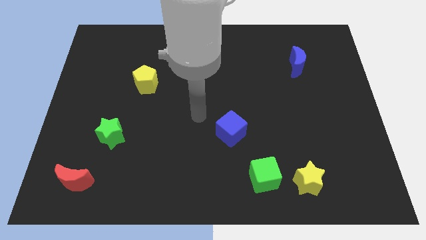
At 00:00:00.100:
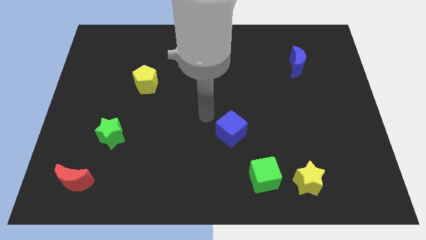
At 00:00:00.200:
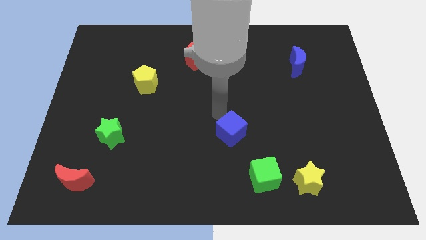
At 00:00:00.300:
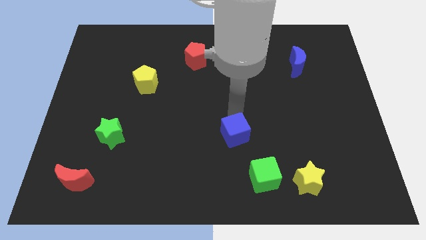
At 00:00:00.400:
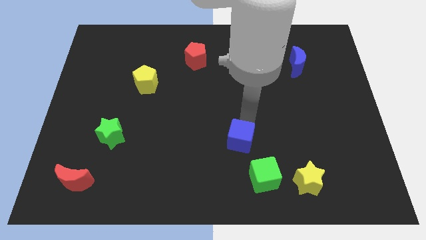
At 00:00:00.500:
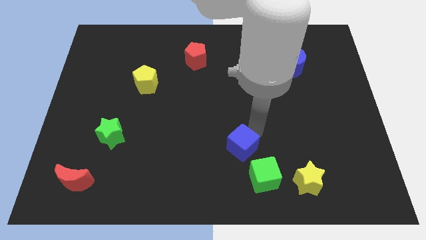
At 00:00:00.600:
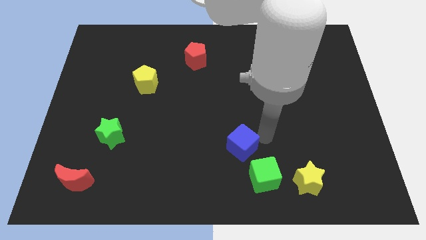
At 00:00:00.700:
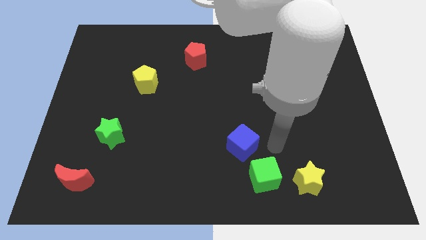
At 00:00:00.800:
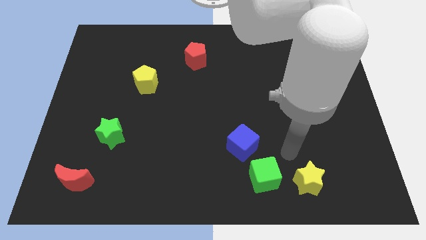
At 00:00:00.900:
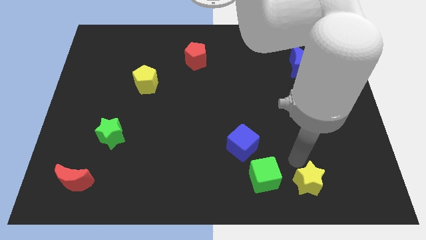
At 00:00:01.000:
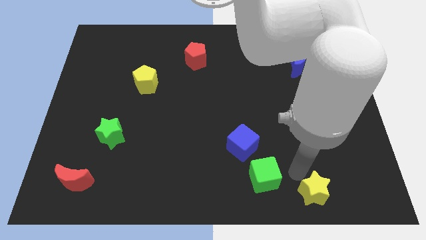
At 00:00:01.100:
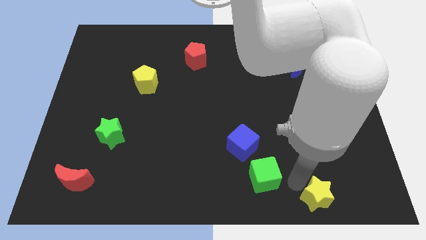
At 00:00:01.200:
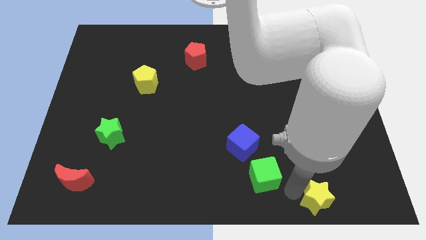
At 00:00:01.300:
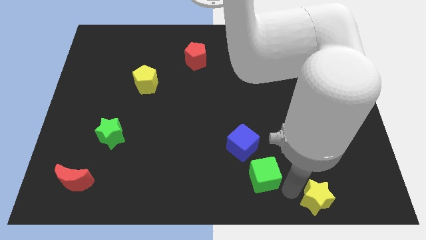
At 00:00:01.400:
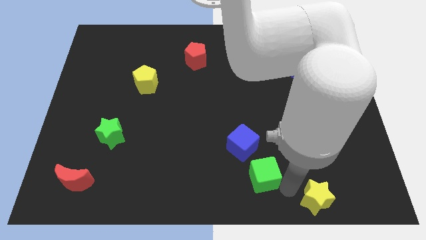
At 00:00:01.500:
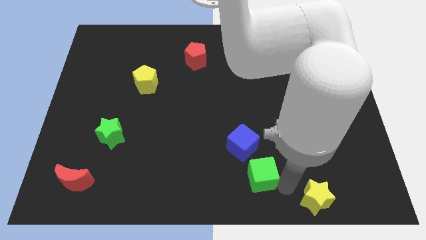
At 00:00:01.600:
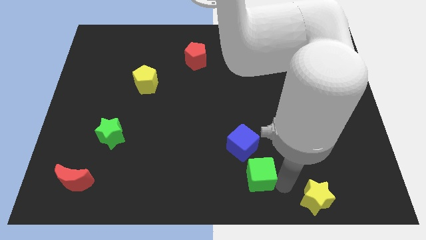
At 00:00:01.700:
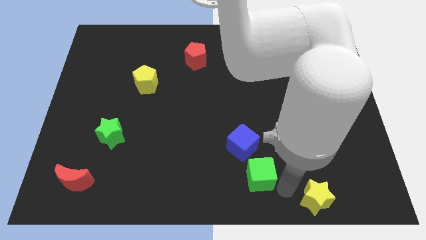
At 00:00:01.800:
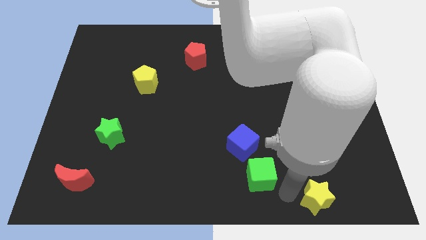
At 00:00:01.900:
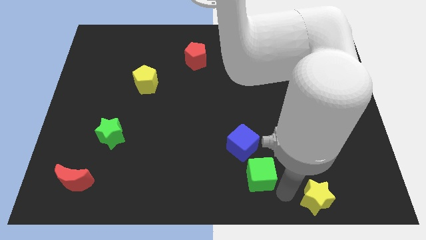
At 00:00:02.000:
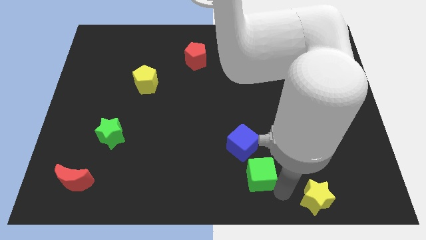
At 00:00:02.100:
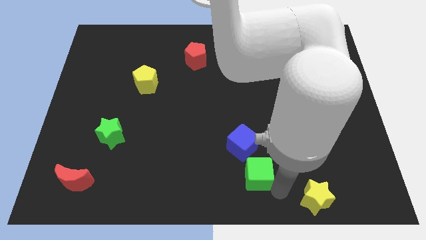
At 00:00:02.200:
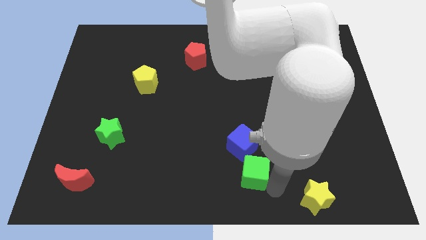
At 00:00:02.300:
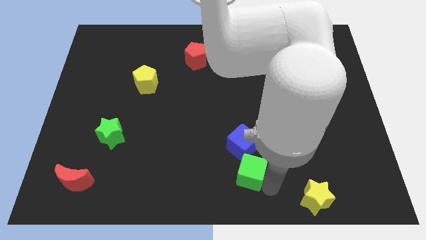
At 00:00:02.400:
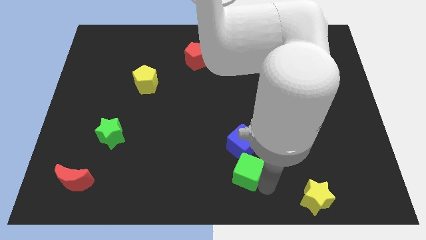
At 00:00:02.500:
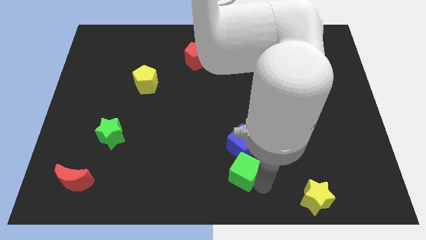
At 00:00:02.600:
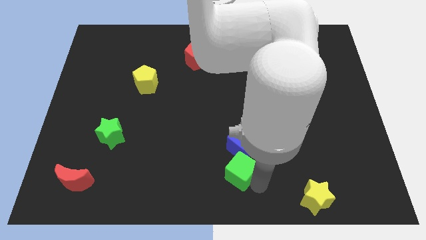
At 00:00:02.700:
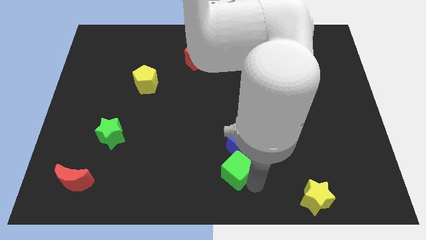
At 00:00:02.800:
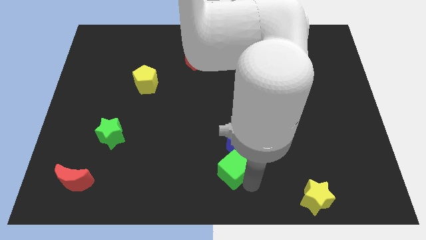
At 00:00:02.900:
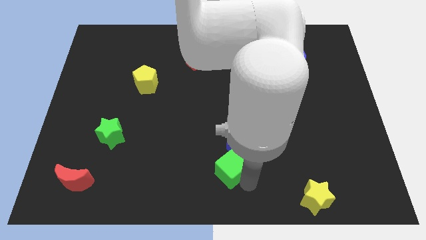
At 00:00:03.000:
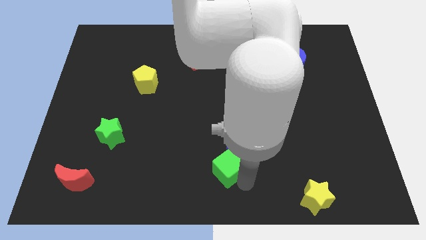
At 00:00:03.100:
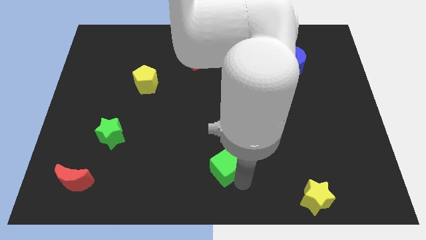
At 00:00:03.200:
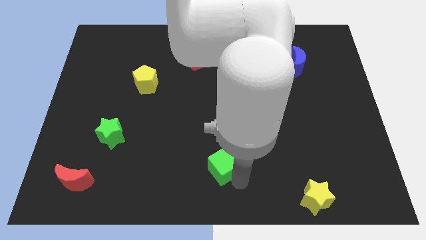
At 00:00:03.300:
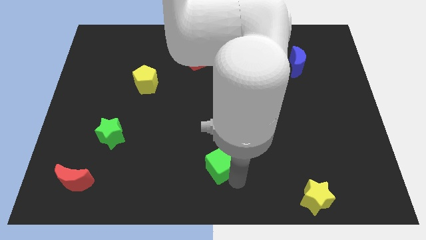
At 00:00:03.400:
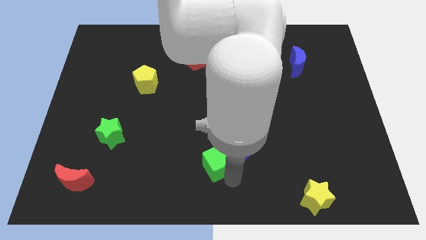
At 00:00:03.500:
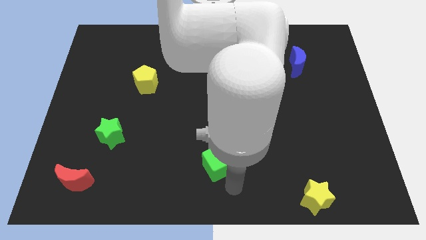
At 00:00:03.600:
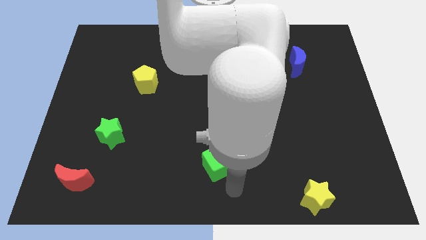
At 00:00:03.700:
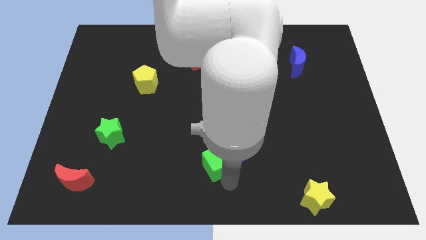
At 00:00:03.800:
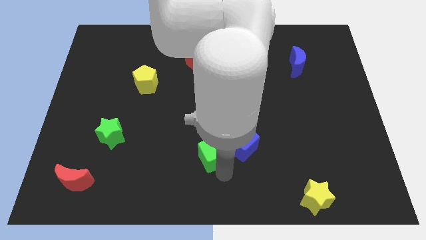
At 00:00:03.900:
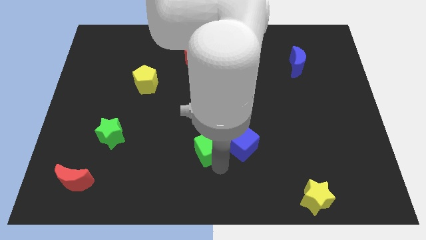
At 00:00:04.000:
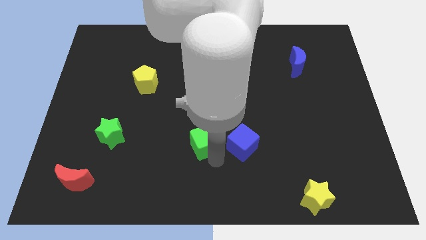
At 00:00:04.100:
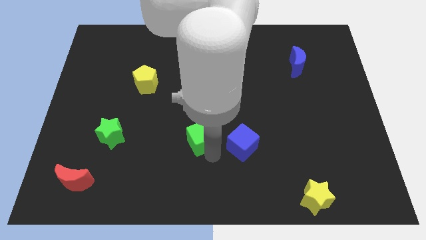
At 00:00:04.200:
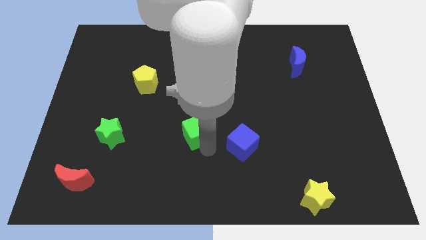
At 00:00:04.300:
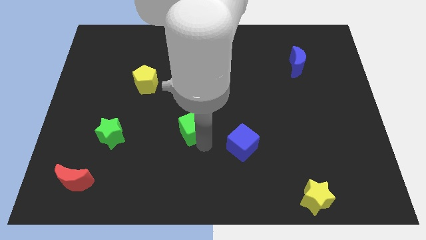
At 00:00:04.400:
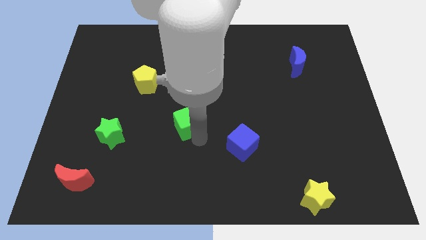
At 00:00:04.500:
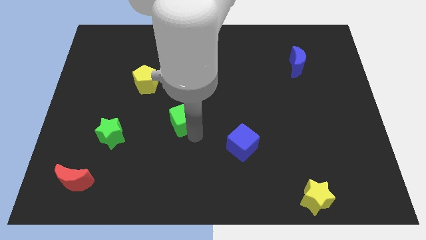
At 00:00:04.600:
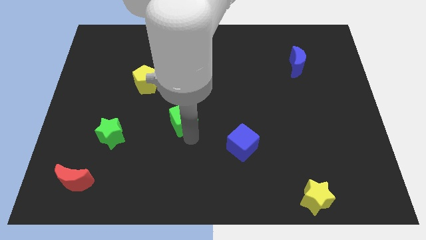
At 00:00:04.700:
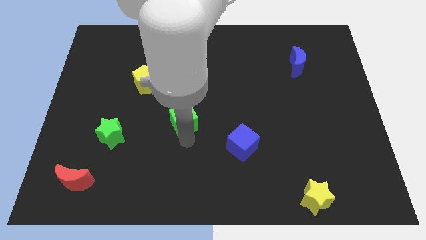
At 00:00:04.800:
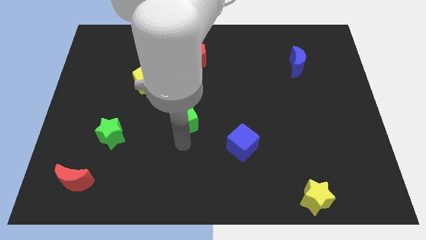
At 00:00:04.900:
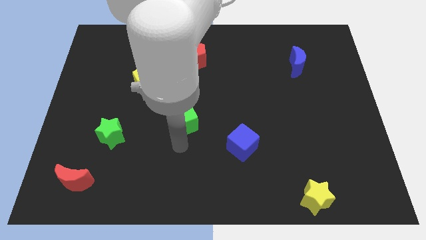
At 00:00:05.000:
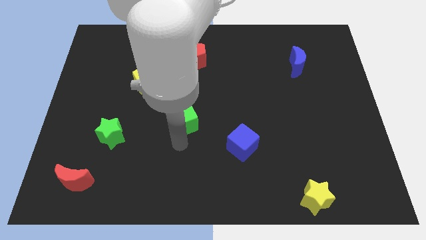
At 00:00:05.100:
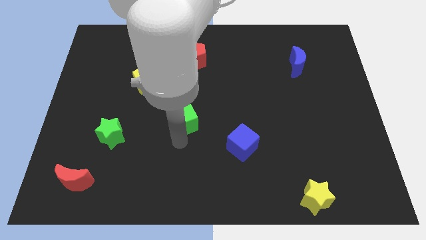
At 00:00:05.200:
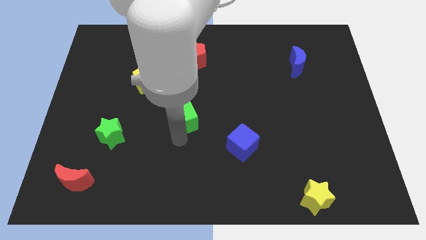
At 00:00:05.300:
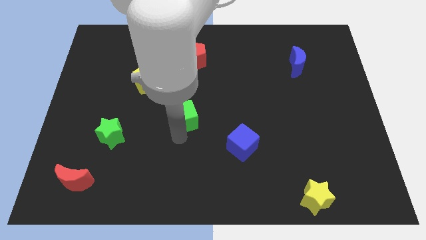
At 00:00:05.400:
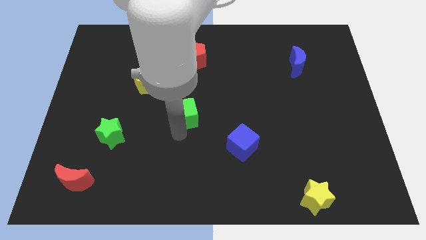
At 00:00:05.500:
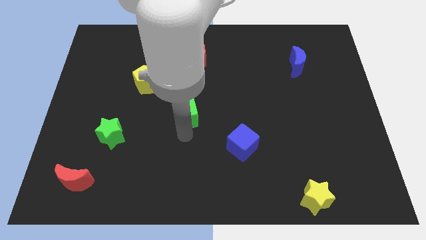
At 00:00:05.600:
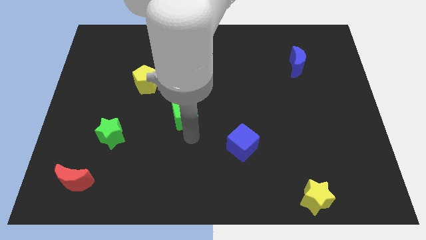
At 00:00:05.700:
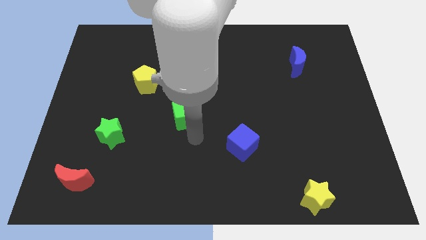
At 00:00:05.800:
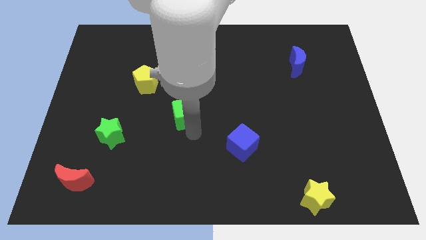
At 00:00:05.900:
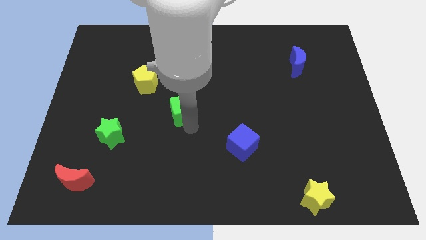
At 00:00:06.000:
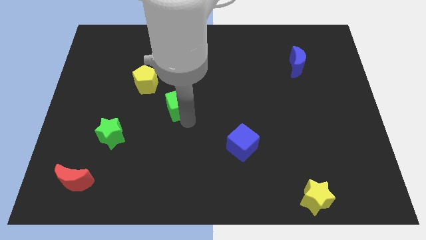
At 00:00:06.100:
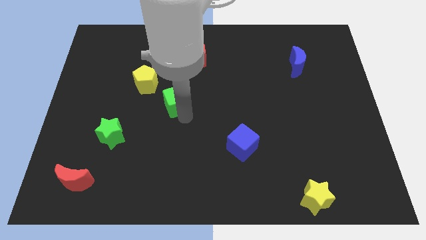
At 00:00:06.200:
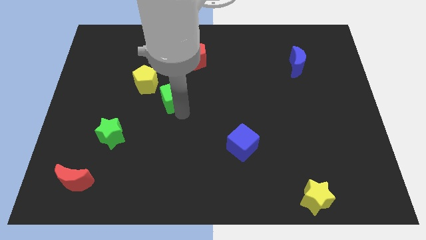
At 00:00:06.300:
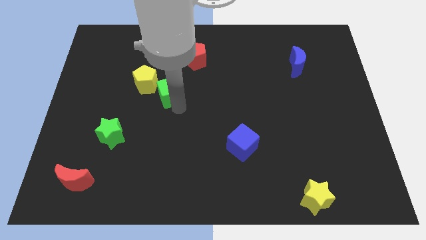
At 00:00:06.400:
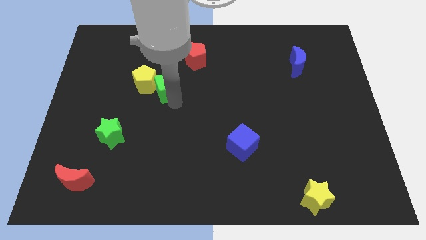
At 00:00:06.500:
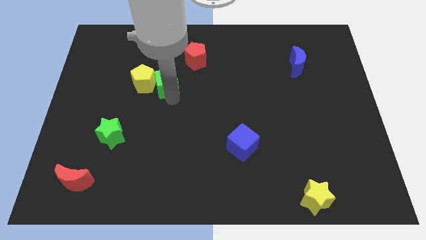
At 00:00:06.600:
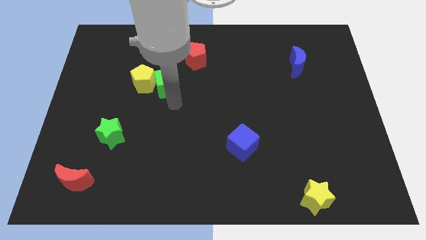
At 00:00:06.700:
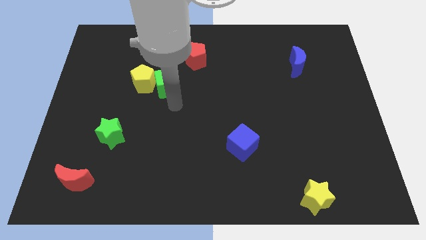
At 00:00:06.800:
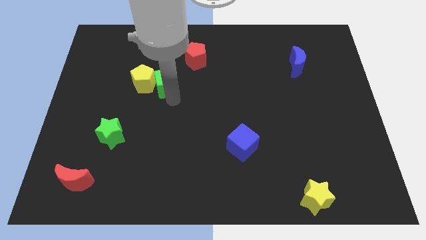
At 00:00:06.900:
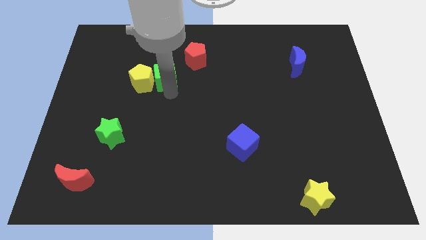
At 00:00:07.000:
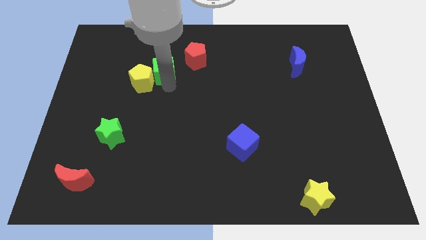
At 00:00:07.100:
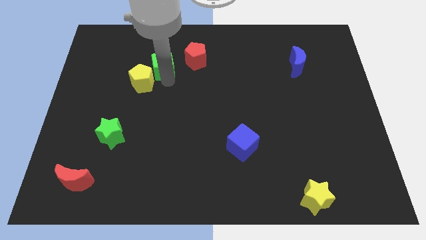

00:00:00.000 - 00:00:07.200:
slide the green cube left of the red pentagon
